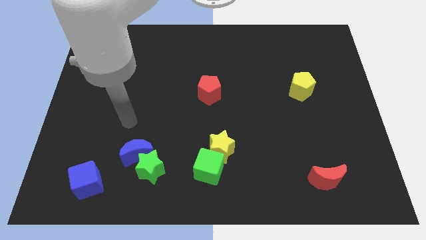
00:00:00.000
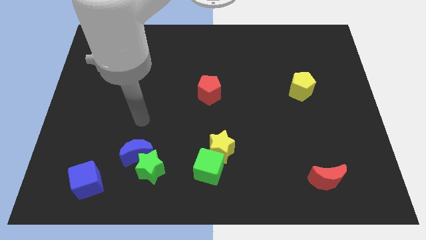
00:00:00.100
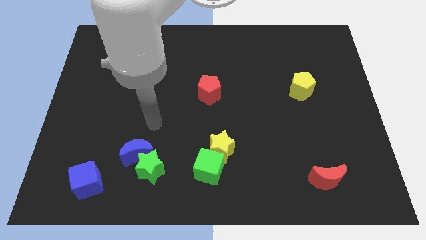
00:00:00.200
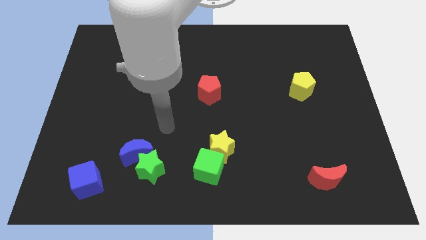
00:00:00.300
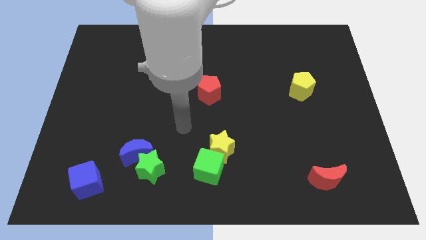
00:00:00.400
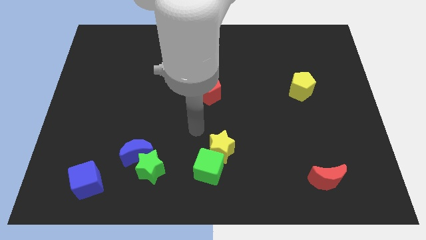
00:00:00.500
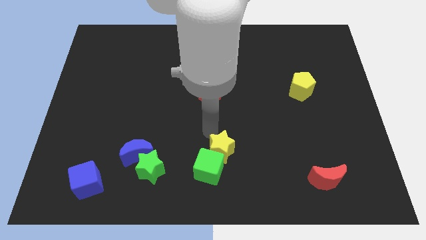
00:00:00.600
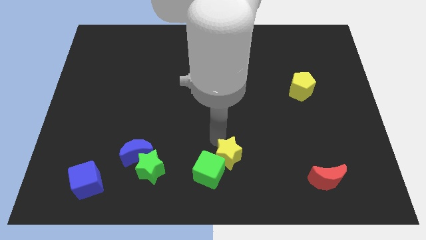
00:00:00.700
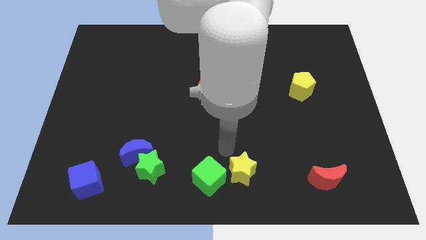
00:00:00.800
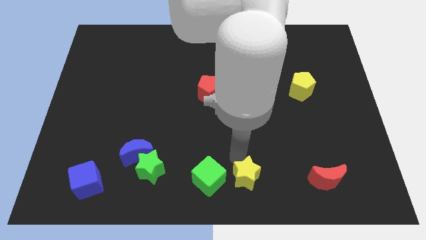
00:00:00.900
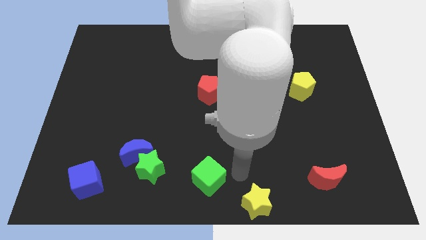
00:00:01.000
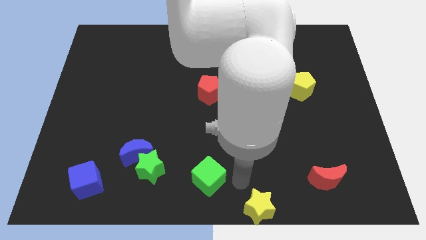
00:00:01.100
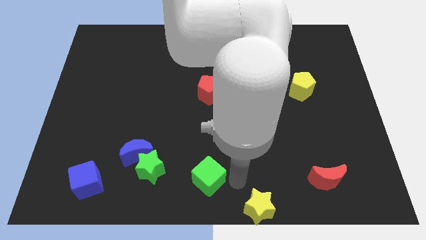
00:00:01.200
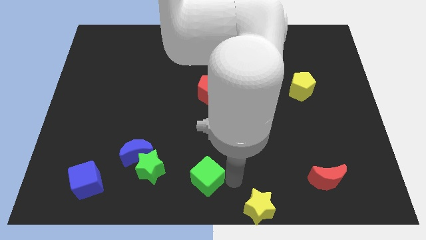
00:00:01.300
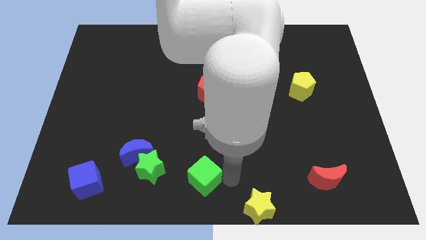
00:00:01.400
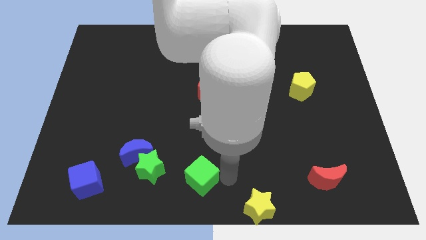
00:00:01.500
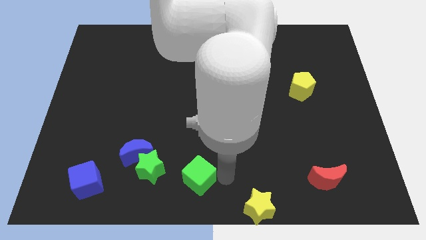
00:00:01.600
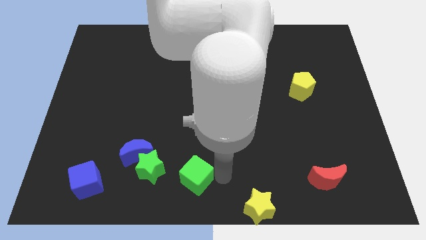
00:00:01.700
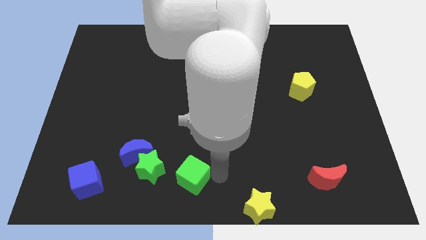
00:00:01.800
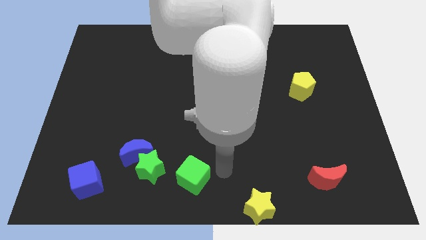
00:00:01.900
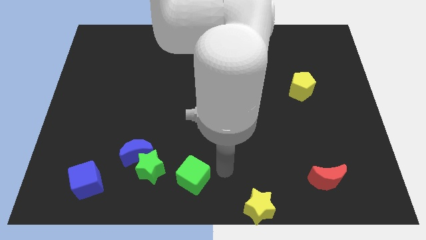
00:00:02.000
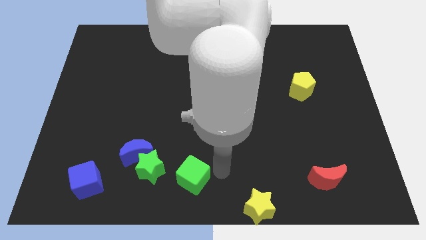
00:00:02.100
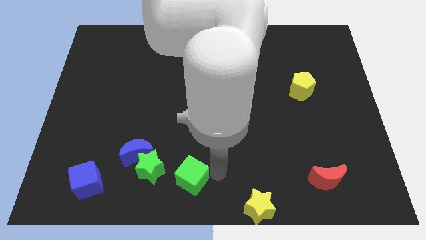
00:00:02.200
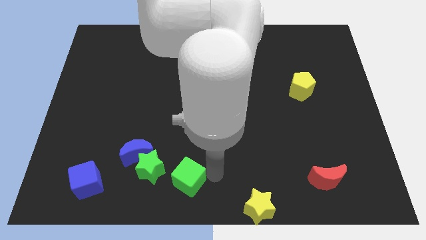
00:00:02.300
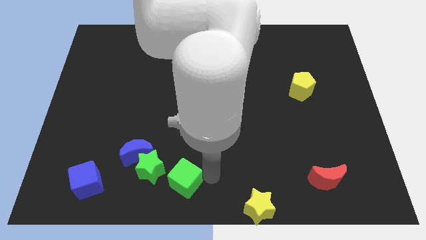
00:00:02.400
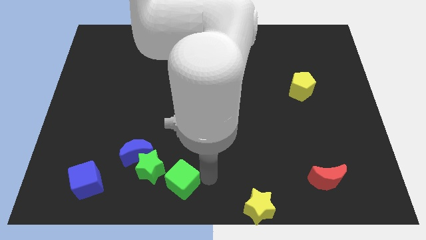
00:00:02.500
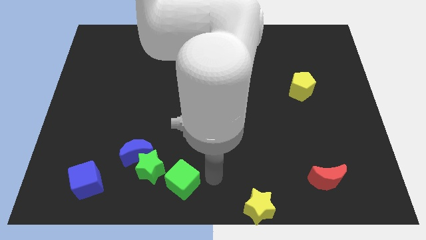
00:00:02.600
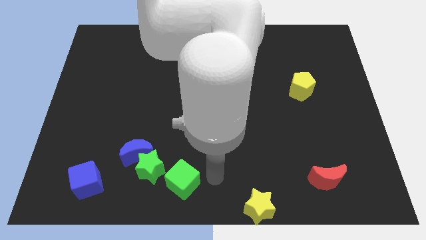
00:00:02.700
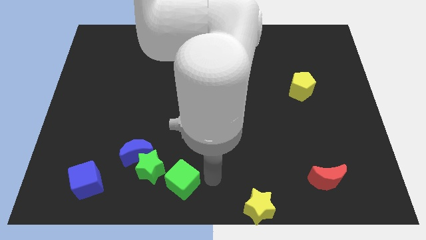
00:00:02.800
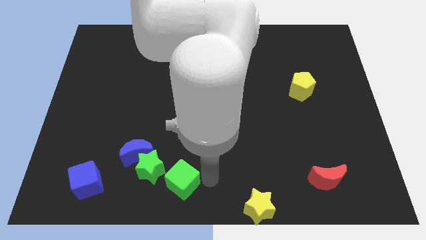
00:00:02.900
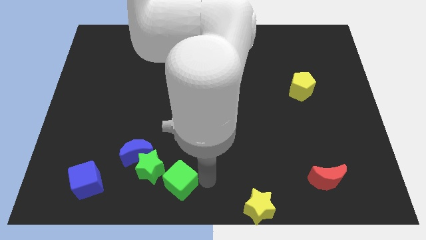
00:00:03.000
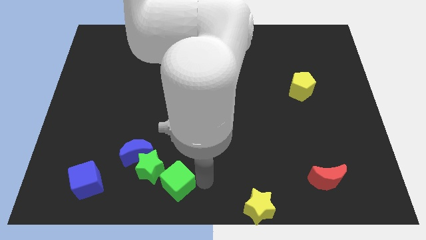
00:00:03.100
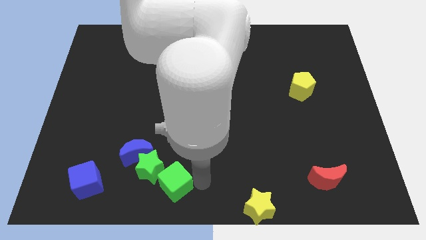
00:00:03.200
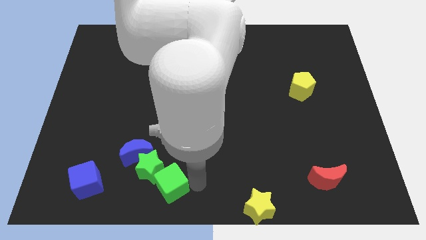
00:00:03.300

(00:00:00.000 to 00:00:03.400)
slide the green cube a bit left

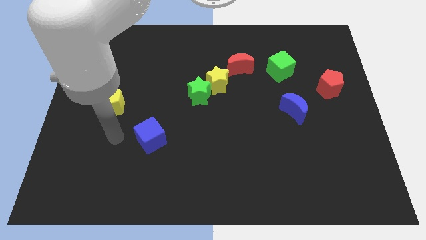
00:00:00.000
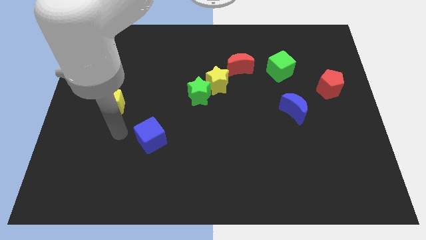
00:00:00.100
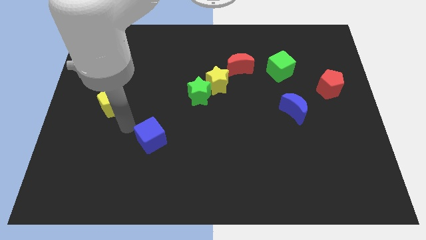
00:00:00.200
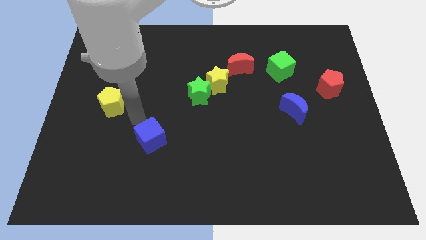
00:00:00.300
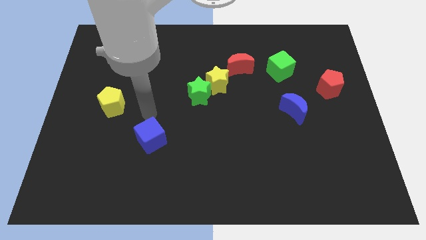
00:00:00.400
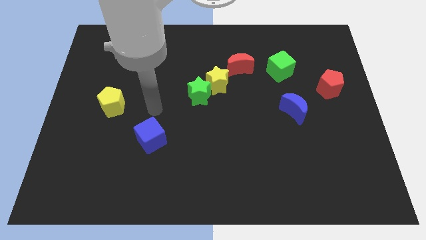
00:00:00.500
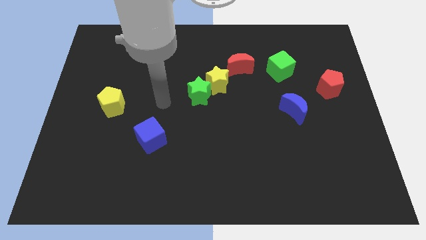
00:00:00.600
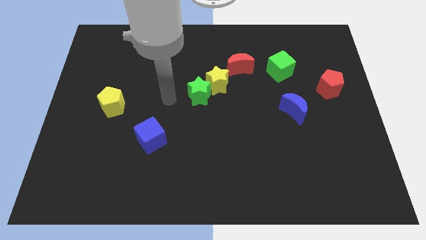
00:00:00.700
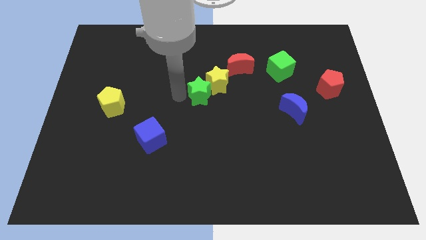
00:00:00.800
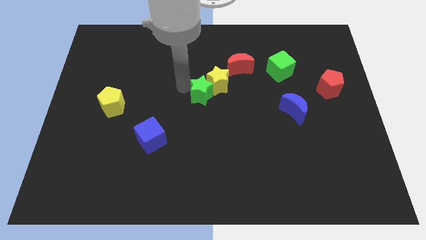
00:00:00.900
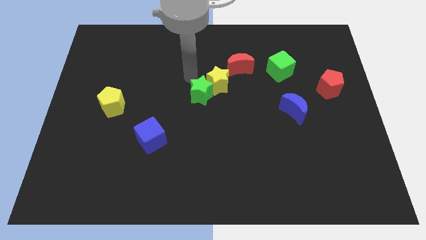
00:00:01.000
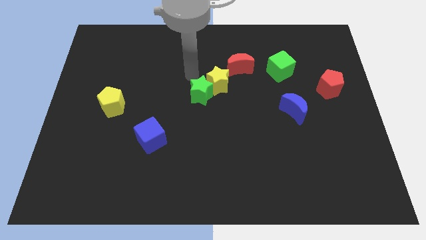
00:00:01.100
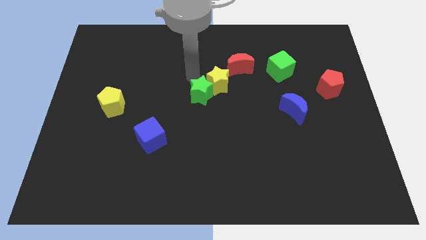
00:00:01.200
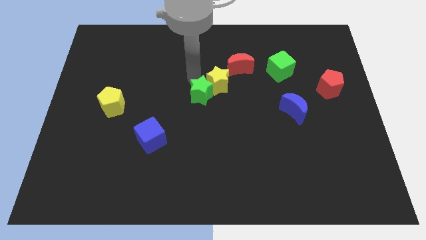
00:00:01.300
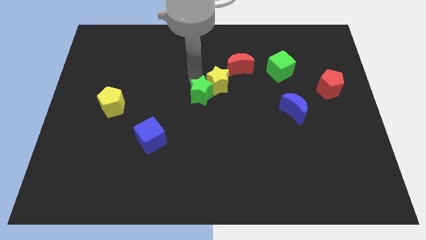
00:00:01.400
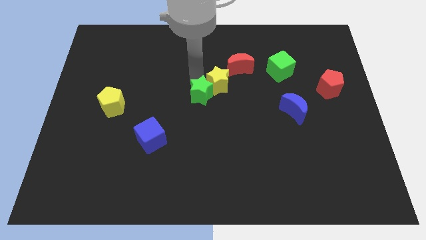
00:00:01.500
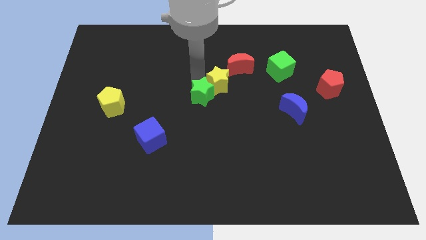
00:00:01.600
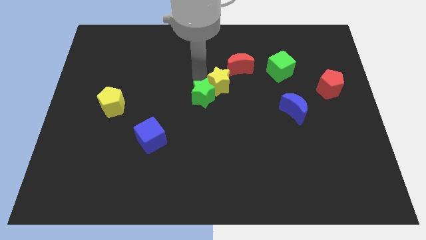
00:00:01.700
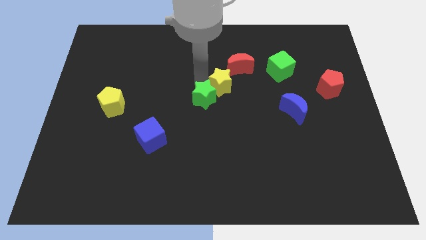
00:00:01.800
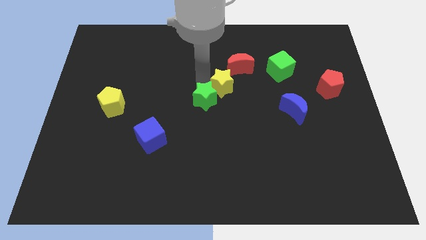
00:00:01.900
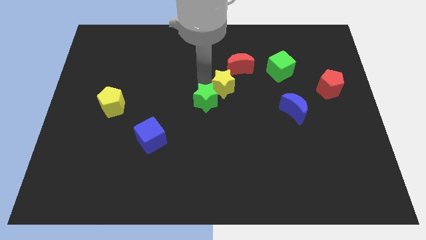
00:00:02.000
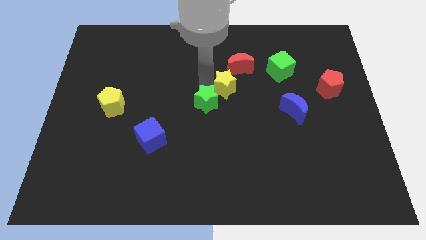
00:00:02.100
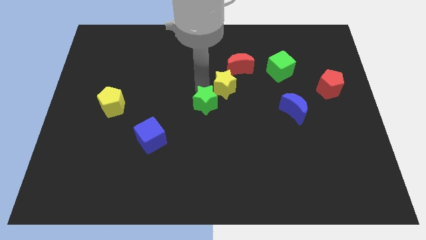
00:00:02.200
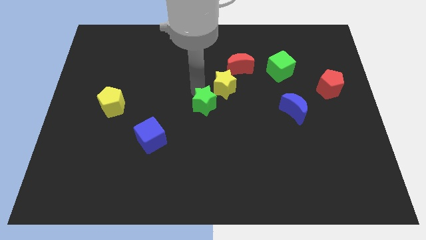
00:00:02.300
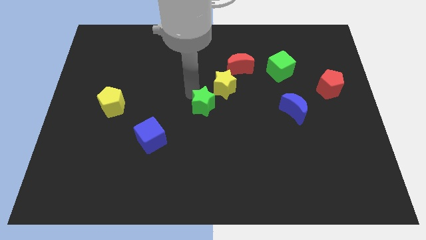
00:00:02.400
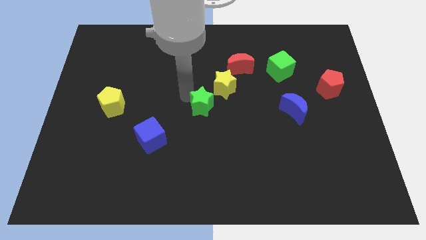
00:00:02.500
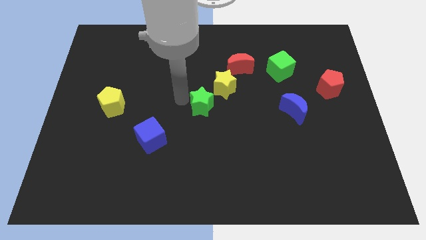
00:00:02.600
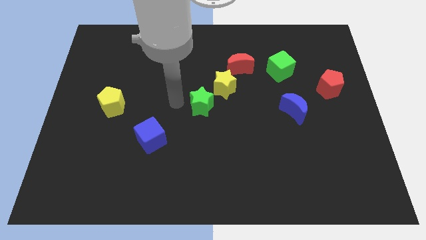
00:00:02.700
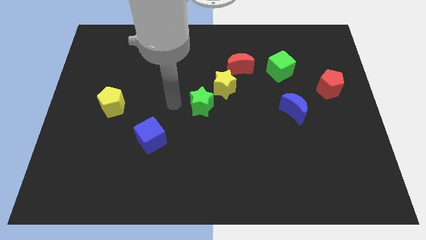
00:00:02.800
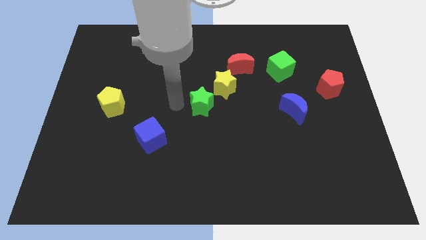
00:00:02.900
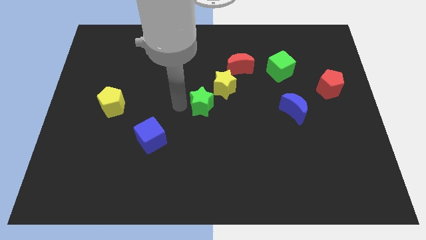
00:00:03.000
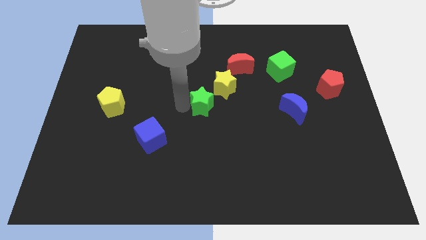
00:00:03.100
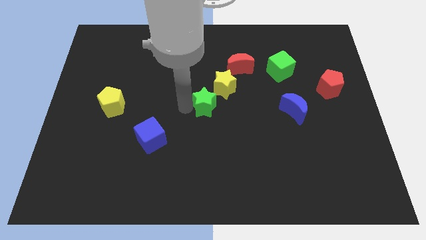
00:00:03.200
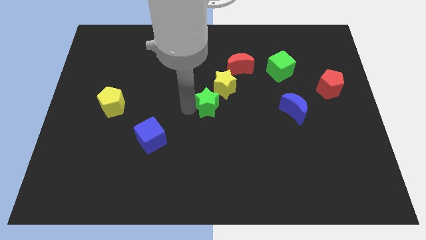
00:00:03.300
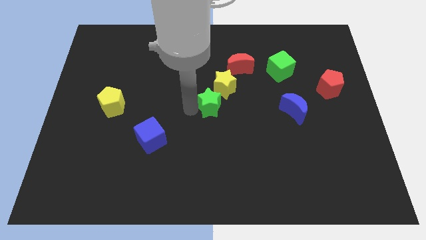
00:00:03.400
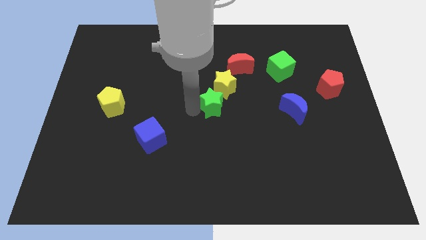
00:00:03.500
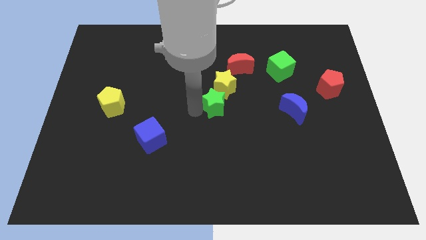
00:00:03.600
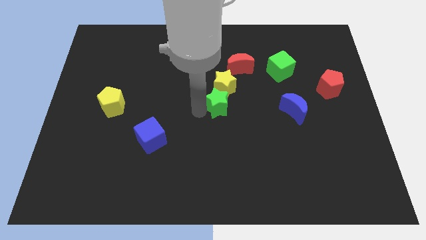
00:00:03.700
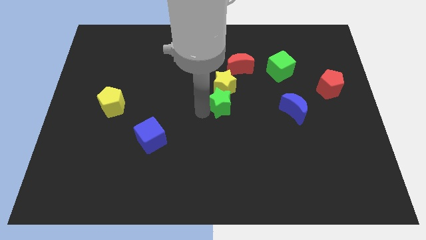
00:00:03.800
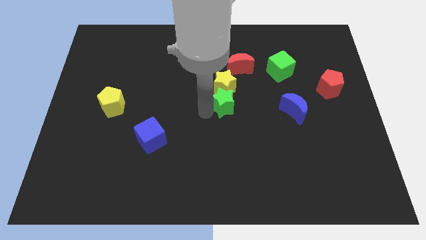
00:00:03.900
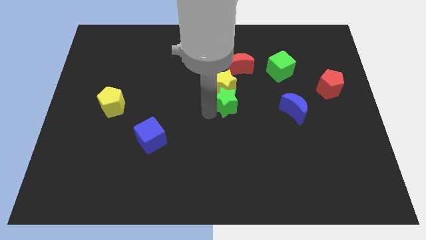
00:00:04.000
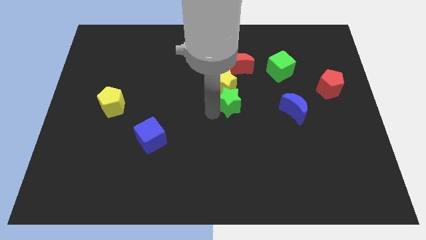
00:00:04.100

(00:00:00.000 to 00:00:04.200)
push the green star to the right a little

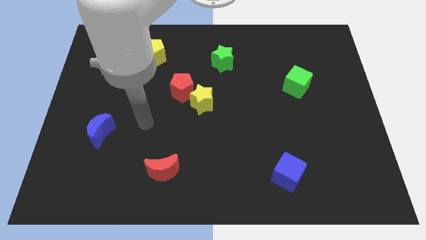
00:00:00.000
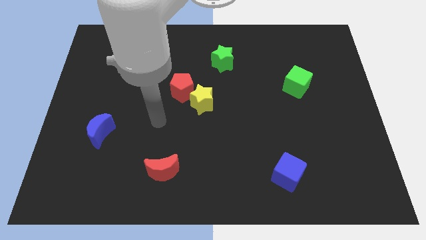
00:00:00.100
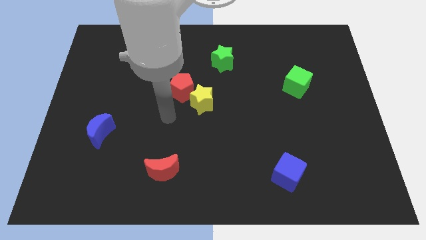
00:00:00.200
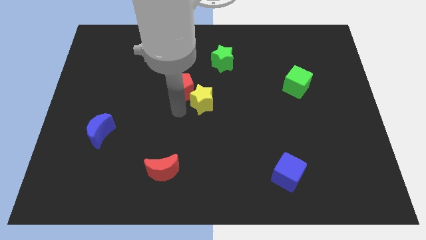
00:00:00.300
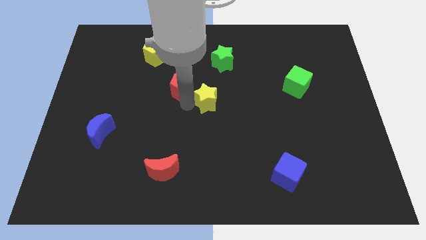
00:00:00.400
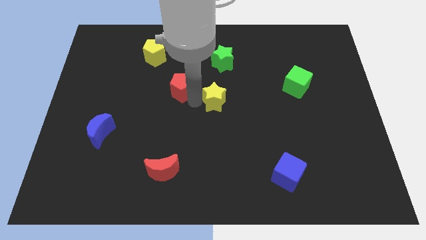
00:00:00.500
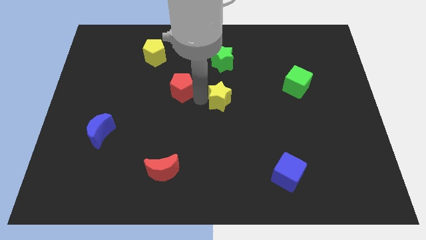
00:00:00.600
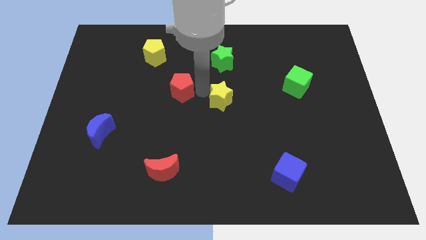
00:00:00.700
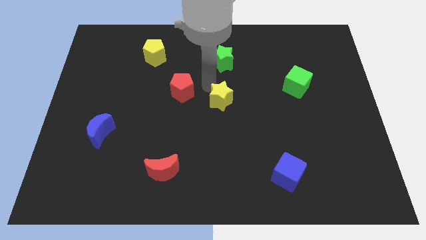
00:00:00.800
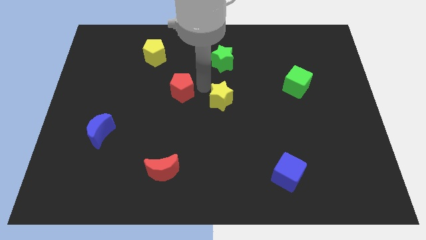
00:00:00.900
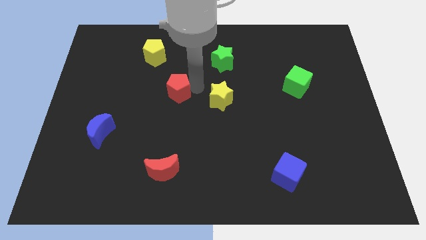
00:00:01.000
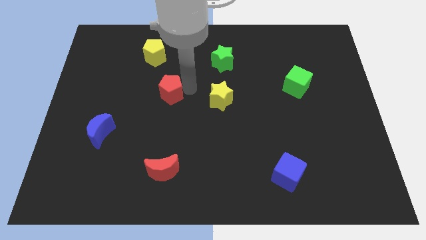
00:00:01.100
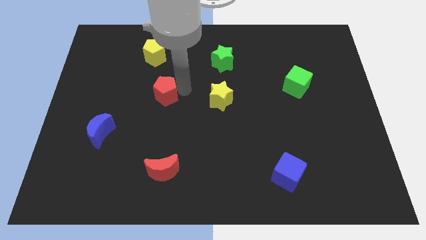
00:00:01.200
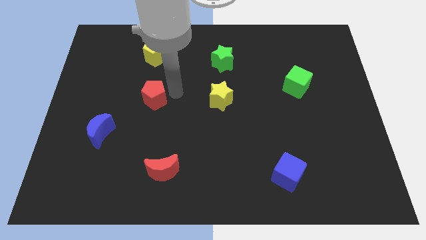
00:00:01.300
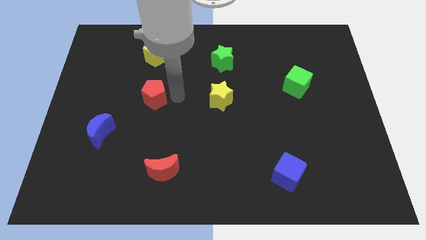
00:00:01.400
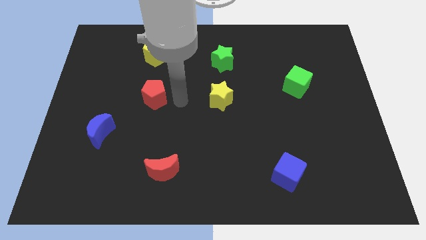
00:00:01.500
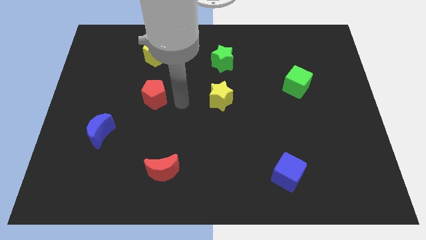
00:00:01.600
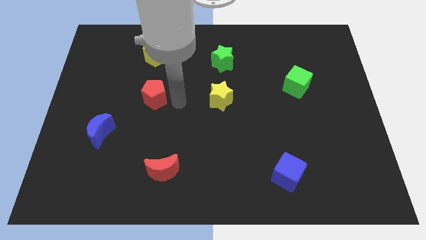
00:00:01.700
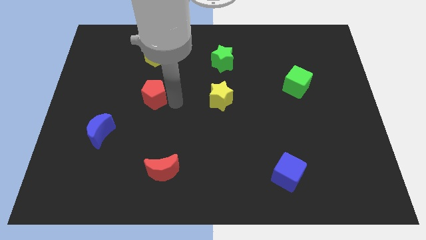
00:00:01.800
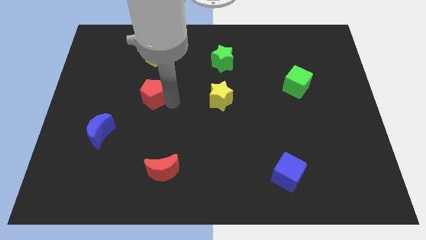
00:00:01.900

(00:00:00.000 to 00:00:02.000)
slightly push the red pentagon left
